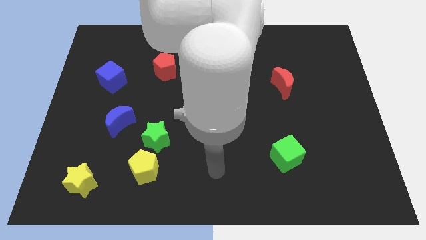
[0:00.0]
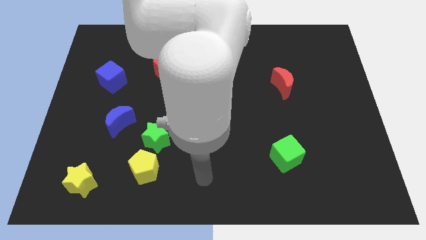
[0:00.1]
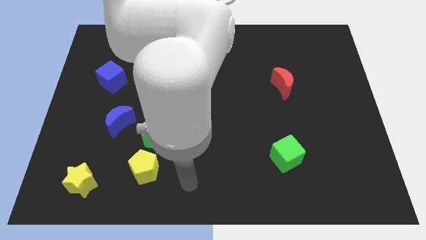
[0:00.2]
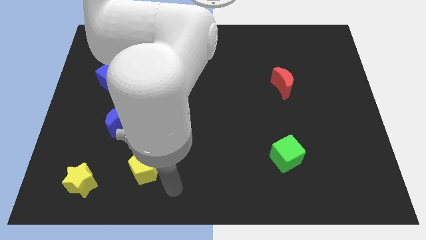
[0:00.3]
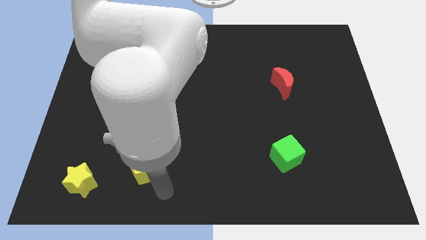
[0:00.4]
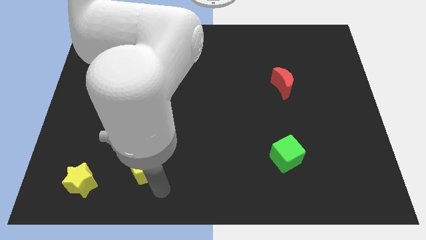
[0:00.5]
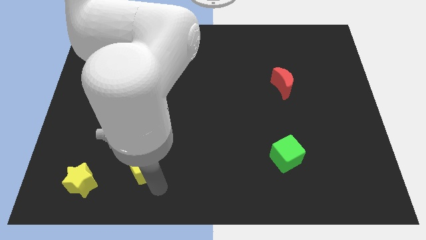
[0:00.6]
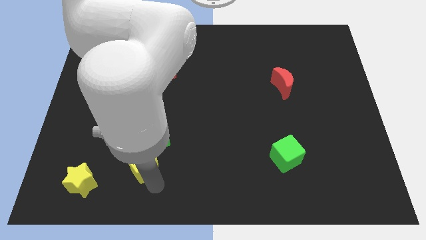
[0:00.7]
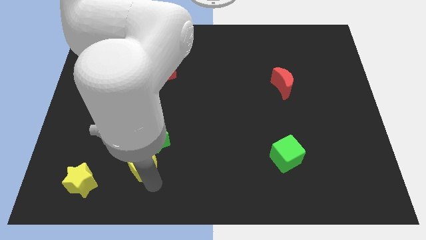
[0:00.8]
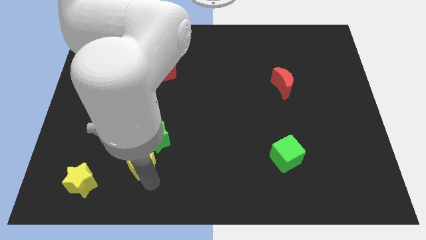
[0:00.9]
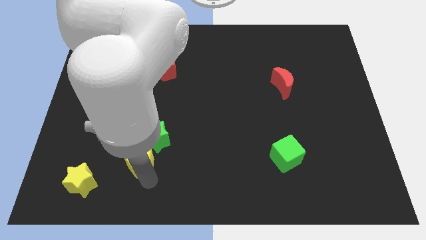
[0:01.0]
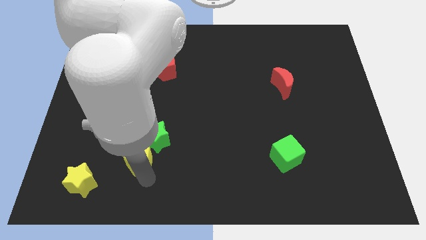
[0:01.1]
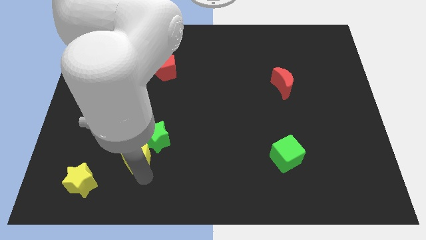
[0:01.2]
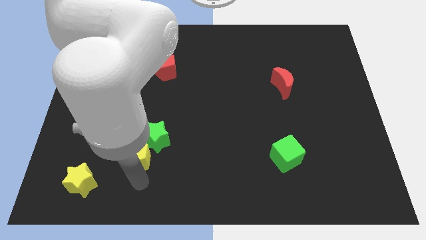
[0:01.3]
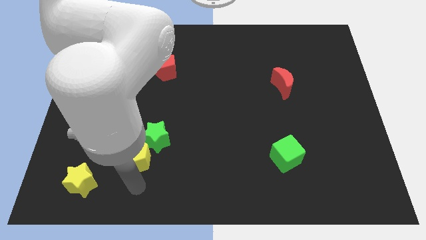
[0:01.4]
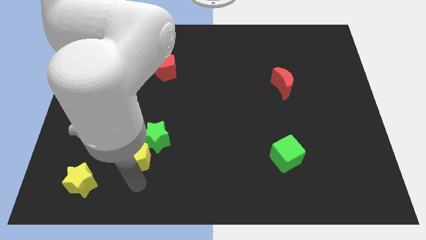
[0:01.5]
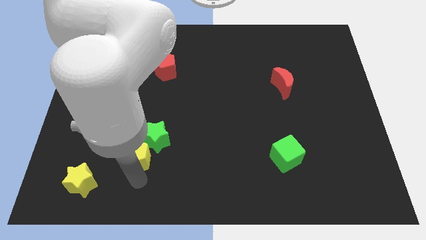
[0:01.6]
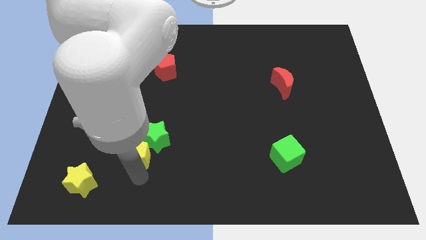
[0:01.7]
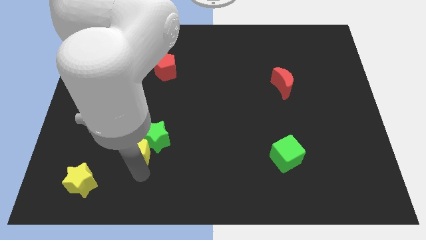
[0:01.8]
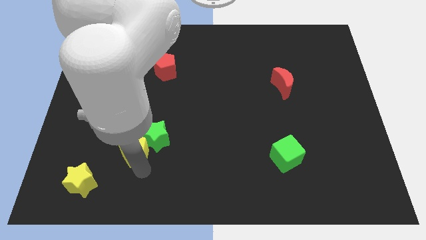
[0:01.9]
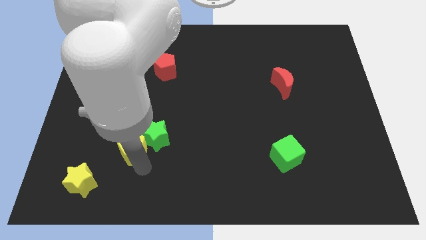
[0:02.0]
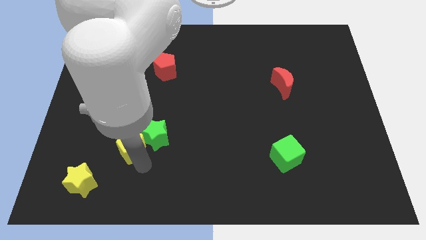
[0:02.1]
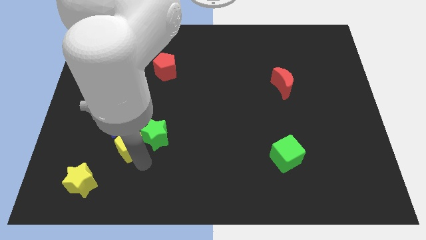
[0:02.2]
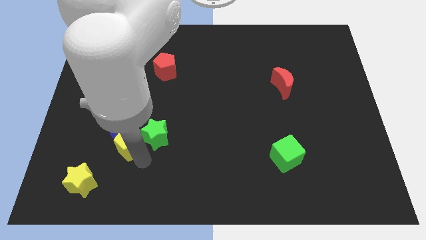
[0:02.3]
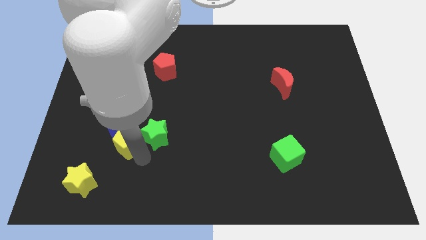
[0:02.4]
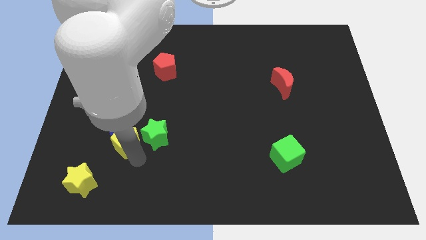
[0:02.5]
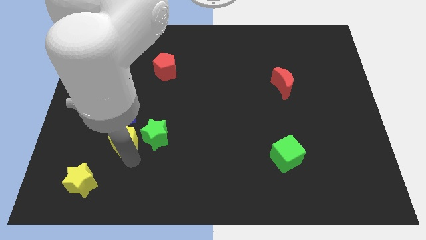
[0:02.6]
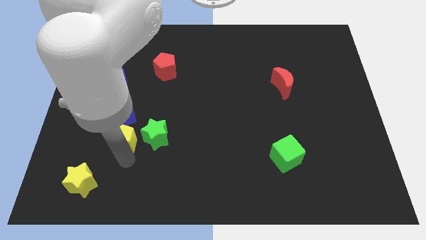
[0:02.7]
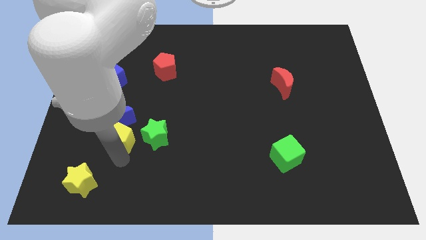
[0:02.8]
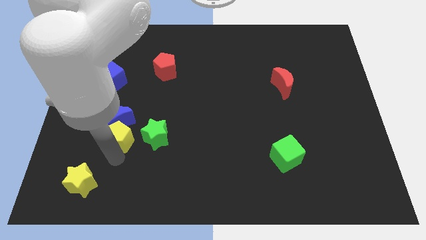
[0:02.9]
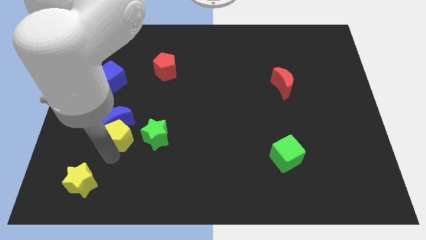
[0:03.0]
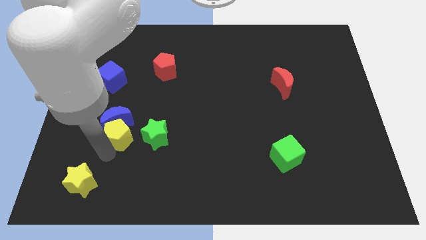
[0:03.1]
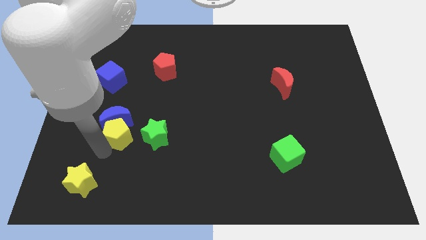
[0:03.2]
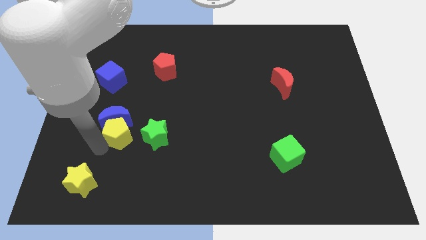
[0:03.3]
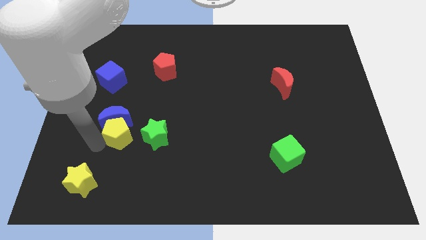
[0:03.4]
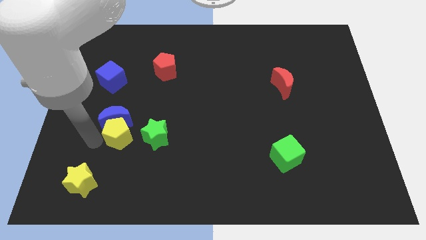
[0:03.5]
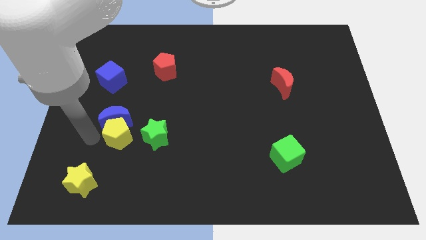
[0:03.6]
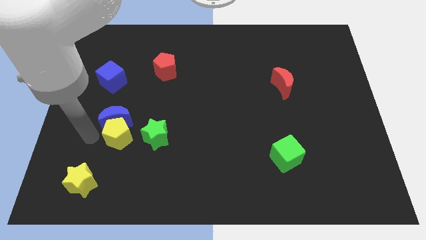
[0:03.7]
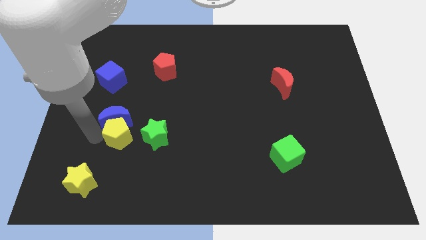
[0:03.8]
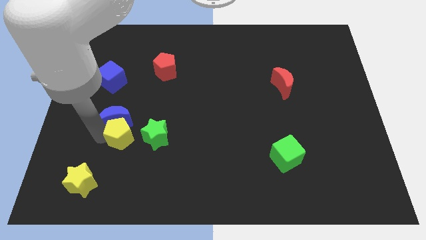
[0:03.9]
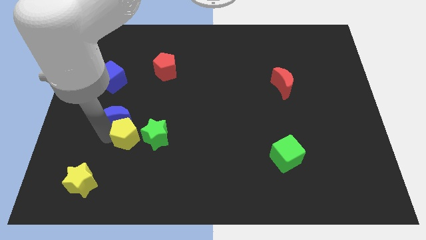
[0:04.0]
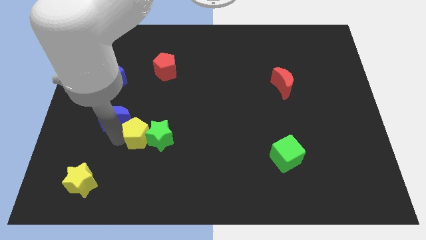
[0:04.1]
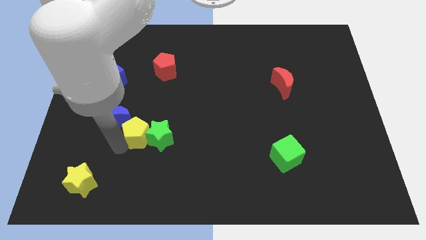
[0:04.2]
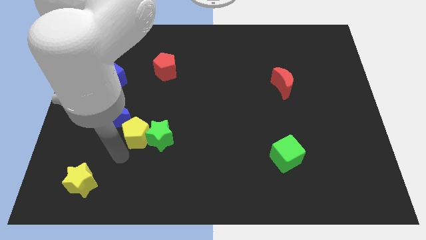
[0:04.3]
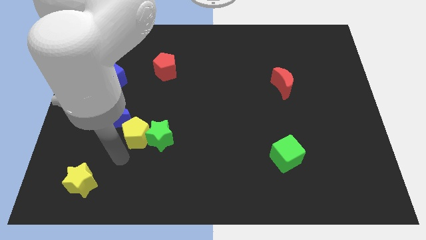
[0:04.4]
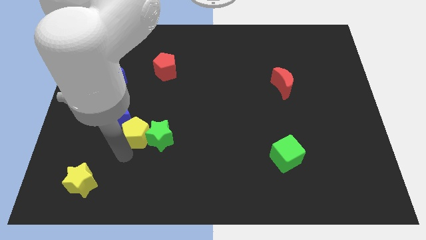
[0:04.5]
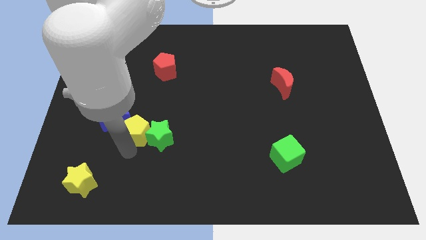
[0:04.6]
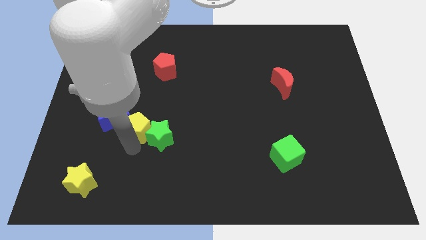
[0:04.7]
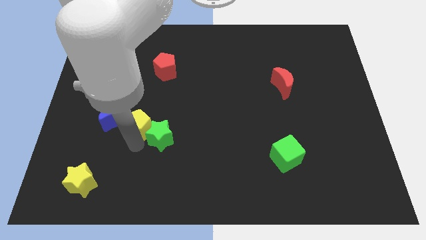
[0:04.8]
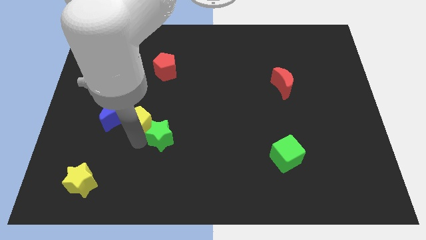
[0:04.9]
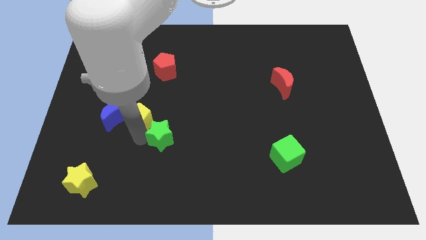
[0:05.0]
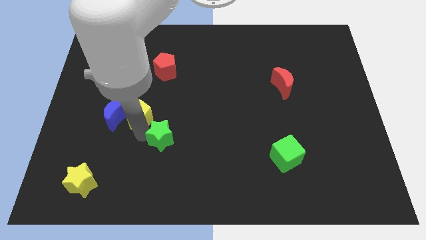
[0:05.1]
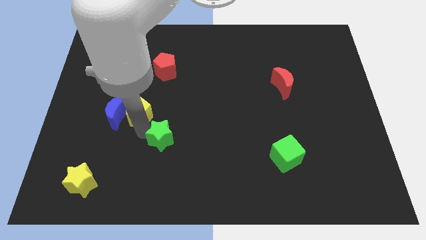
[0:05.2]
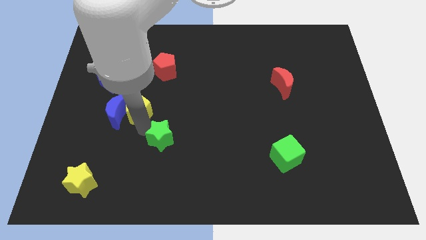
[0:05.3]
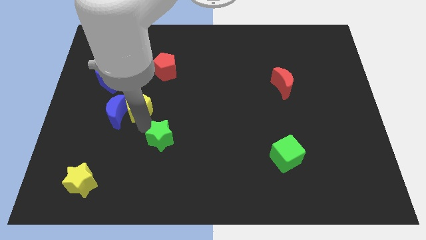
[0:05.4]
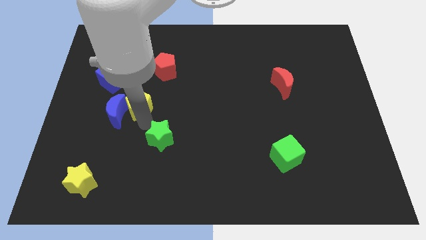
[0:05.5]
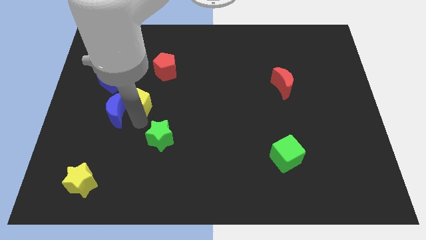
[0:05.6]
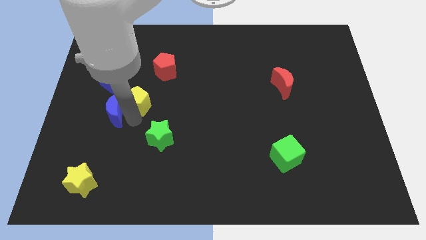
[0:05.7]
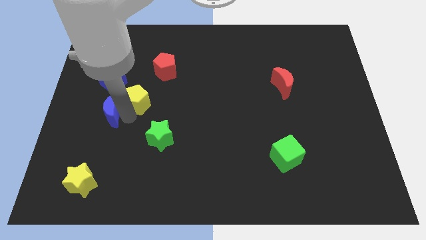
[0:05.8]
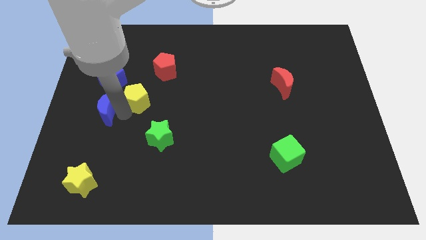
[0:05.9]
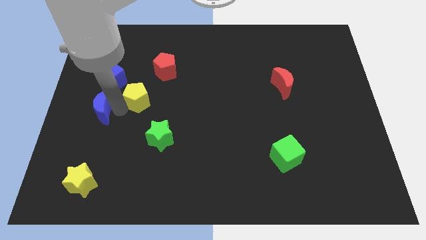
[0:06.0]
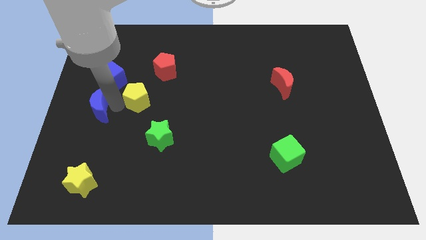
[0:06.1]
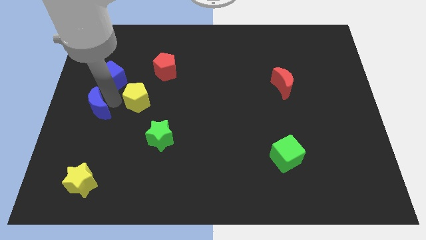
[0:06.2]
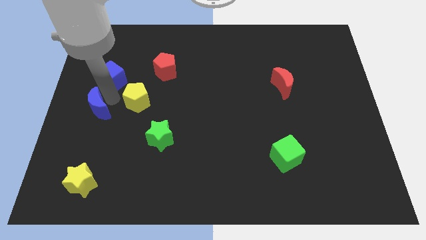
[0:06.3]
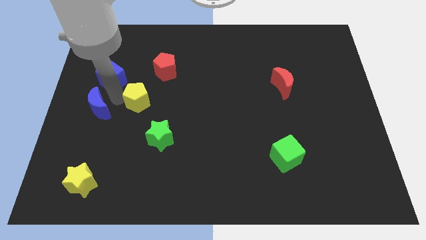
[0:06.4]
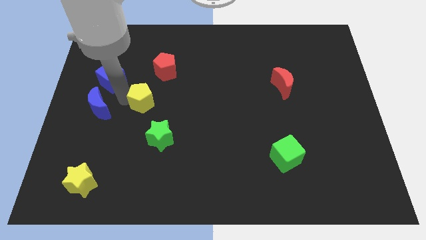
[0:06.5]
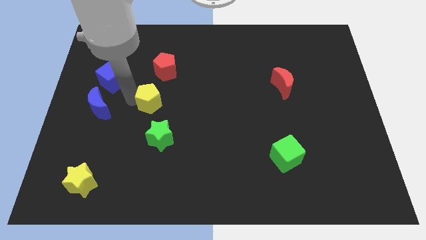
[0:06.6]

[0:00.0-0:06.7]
put the yellow pentagon above the green star

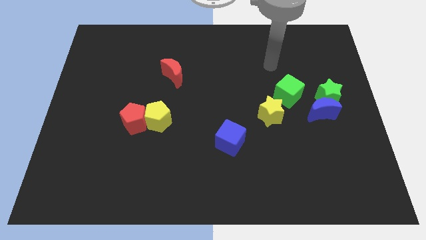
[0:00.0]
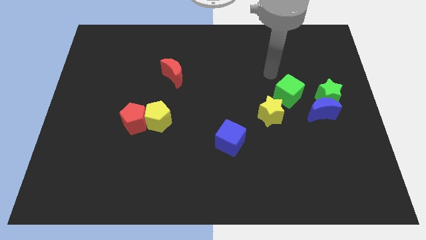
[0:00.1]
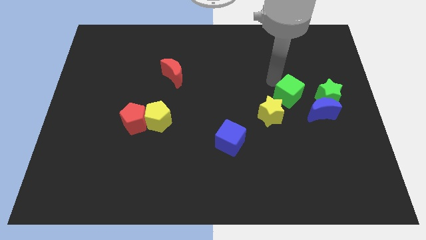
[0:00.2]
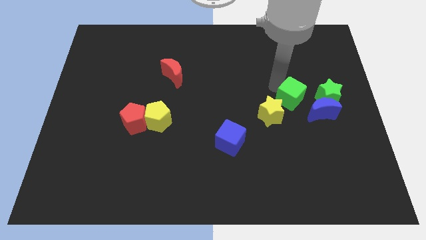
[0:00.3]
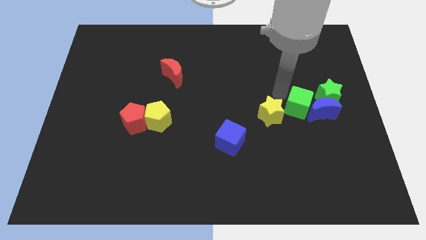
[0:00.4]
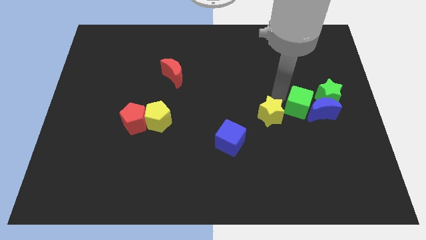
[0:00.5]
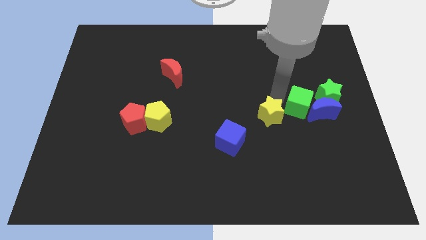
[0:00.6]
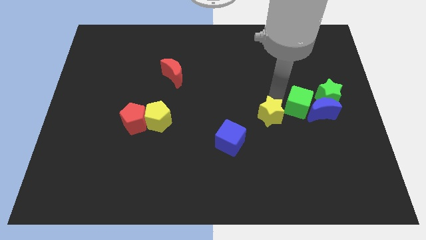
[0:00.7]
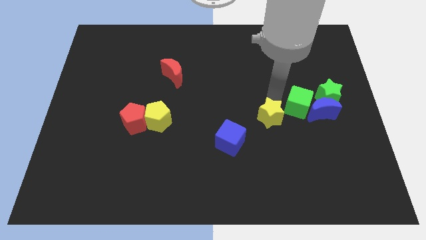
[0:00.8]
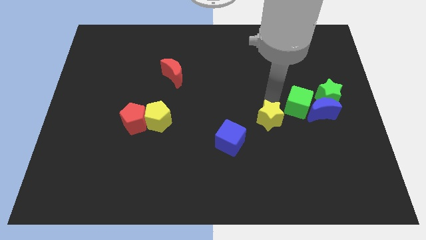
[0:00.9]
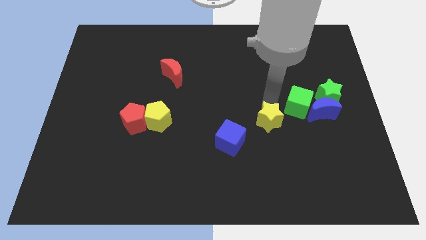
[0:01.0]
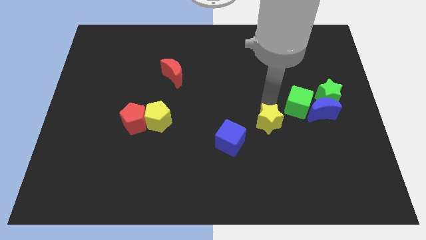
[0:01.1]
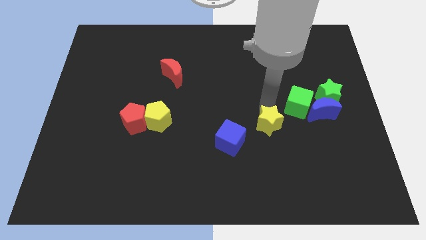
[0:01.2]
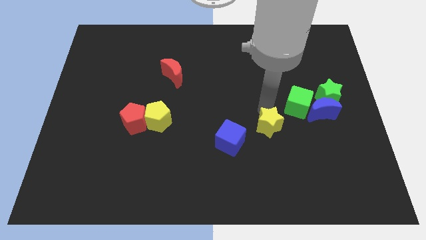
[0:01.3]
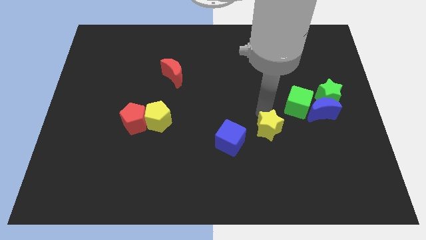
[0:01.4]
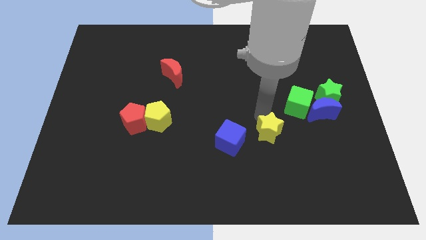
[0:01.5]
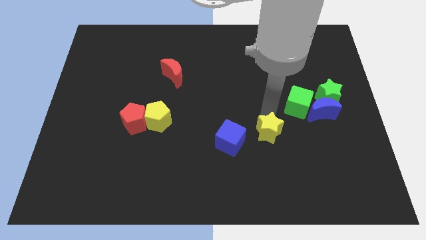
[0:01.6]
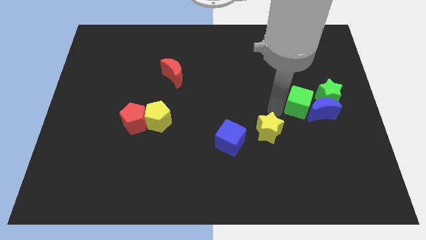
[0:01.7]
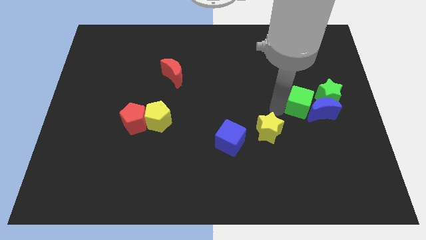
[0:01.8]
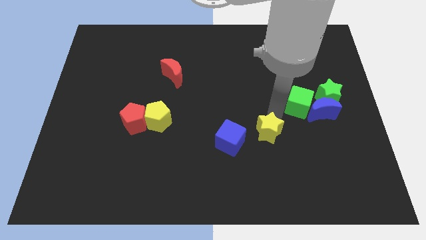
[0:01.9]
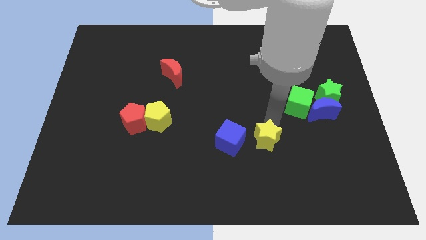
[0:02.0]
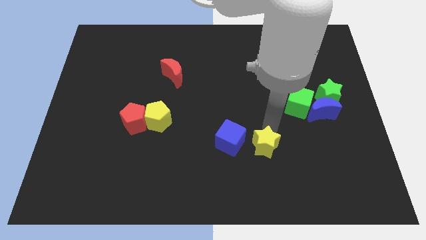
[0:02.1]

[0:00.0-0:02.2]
move the yellow star to the bottom right of the blue cube
